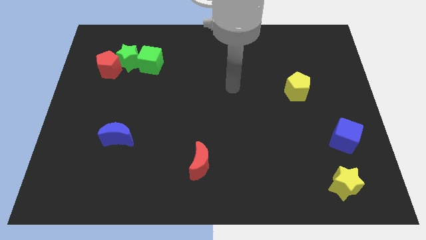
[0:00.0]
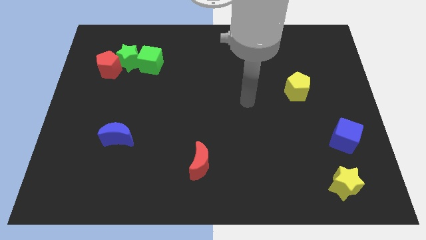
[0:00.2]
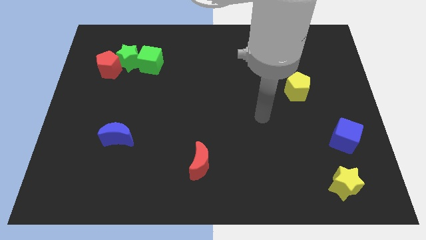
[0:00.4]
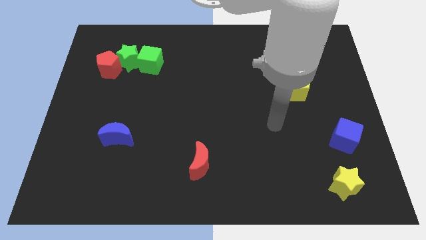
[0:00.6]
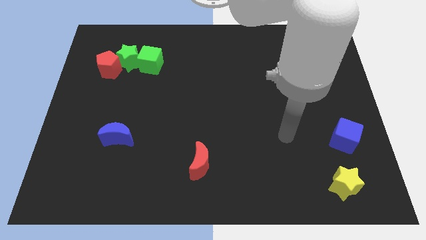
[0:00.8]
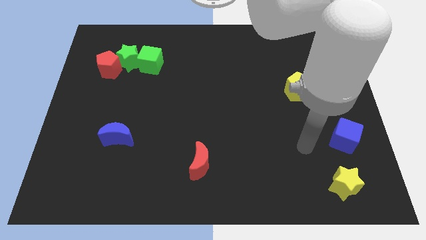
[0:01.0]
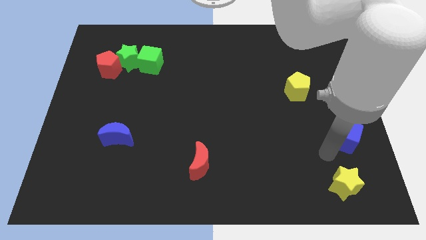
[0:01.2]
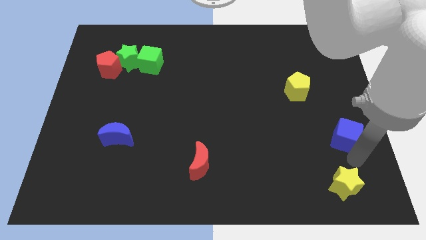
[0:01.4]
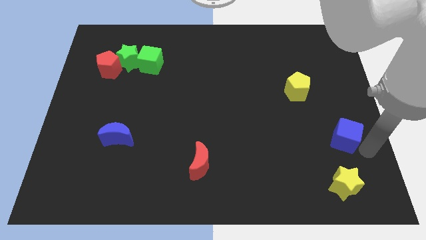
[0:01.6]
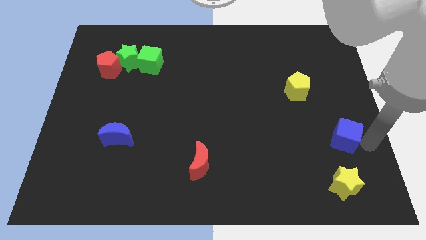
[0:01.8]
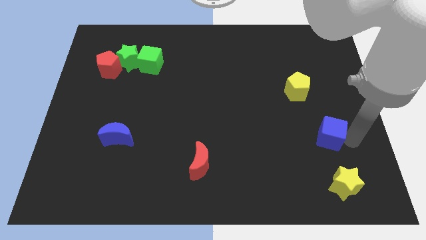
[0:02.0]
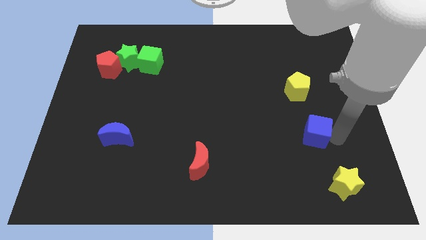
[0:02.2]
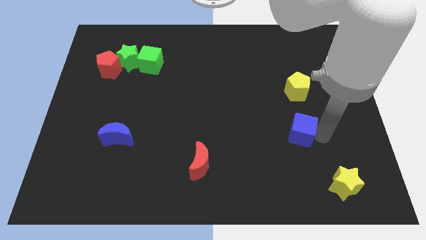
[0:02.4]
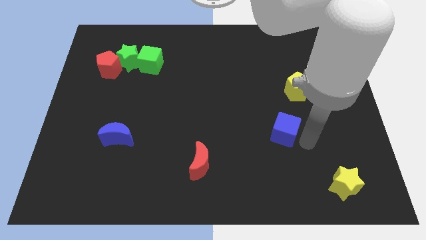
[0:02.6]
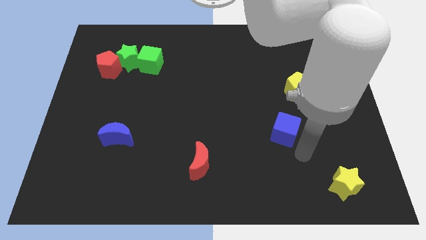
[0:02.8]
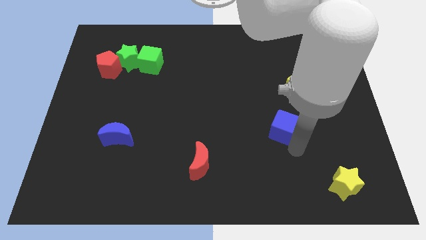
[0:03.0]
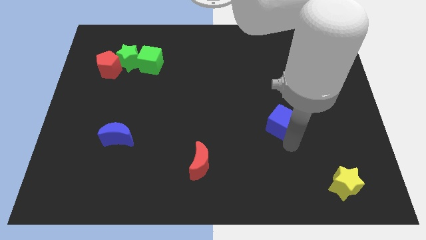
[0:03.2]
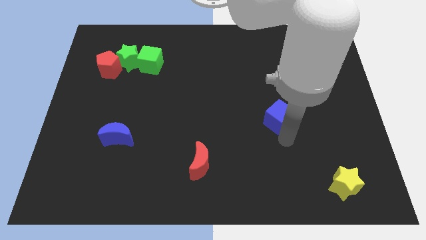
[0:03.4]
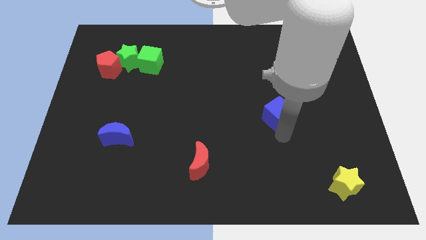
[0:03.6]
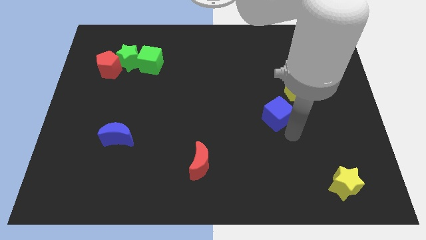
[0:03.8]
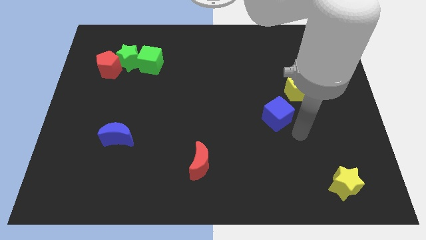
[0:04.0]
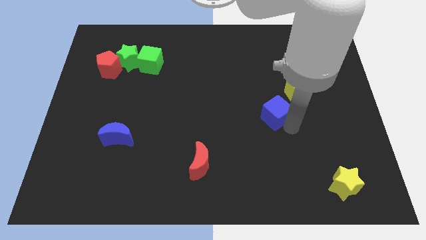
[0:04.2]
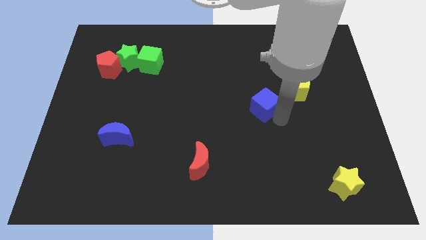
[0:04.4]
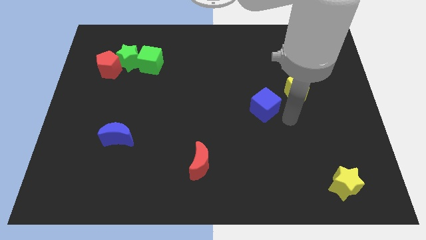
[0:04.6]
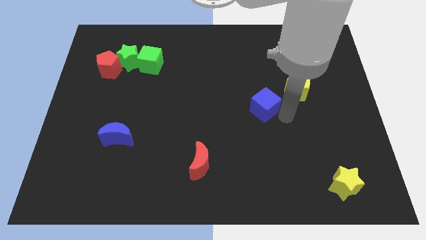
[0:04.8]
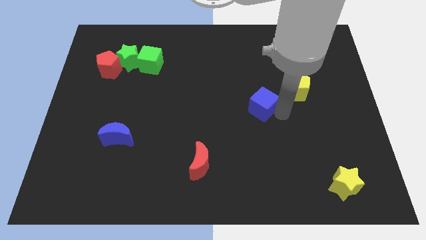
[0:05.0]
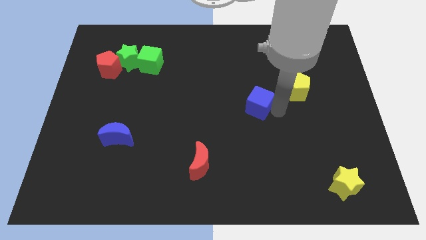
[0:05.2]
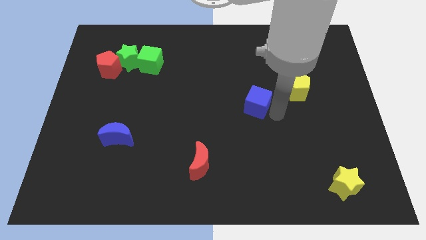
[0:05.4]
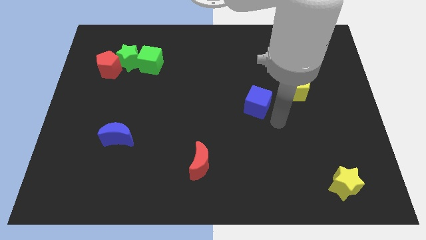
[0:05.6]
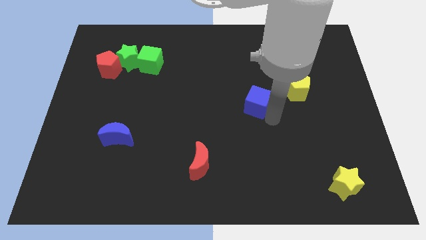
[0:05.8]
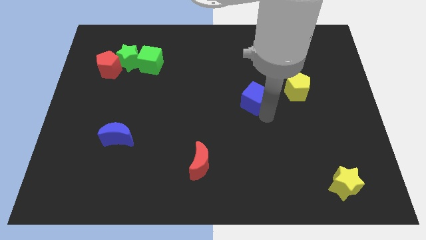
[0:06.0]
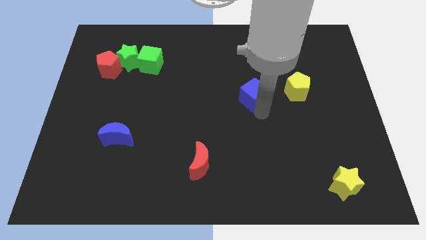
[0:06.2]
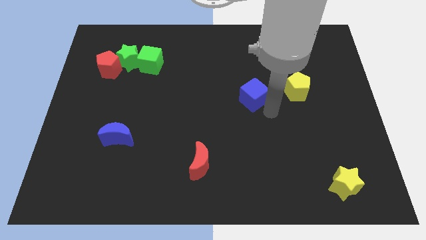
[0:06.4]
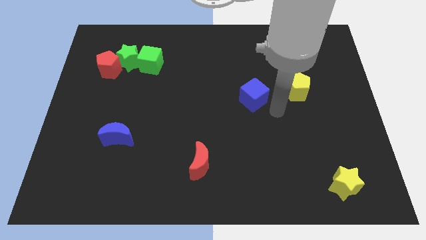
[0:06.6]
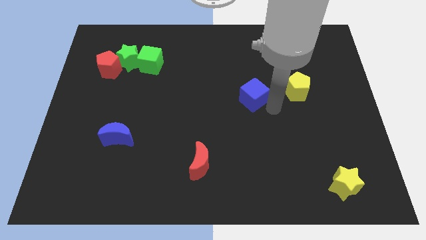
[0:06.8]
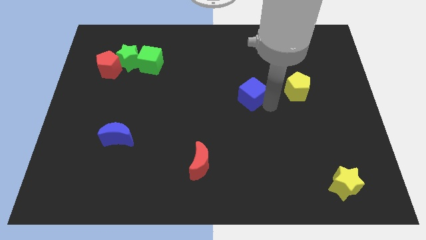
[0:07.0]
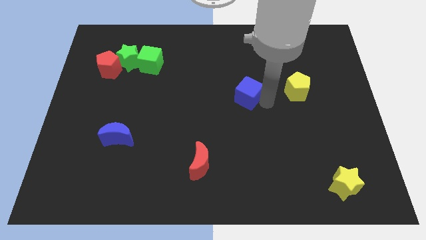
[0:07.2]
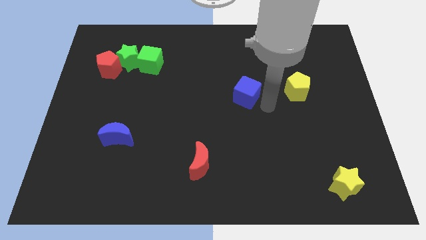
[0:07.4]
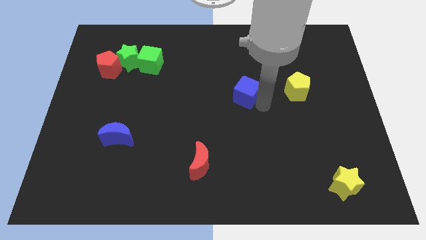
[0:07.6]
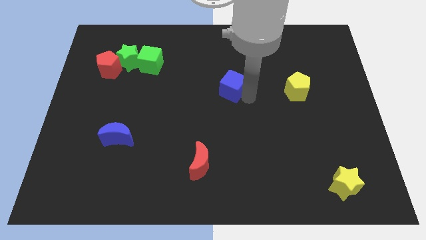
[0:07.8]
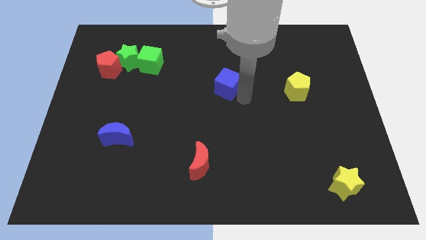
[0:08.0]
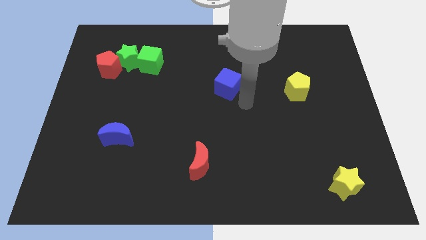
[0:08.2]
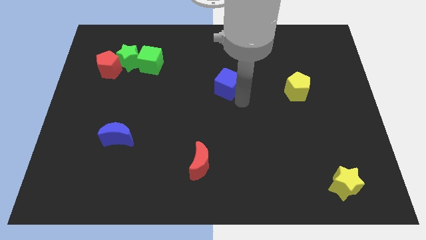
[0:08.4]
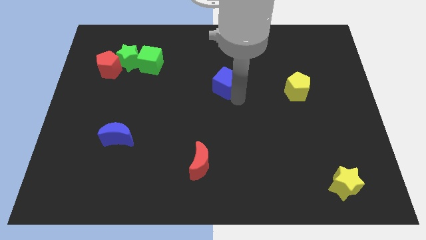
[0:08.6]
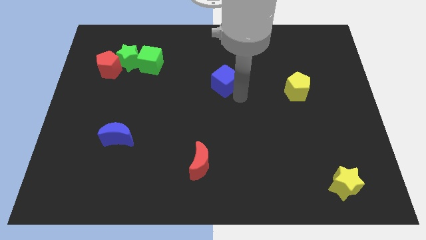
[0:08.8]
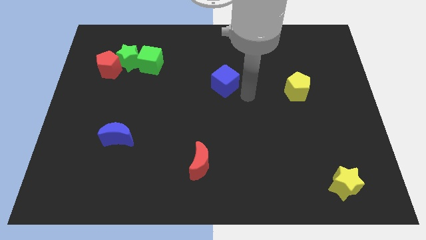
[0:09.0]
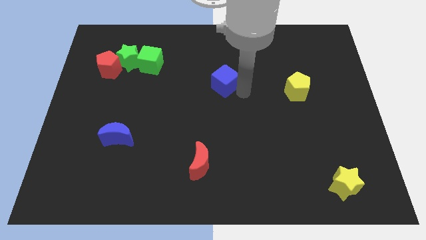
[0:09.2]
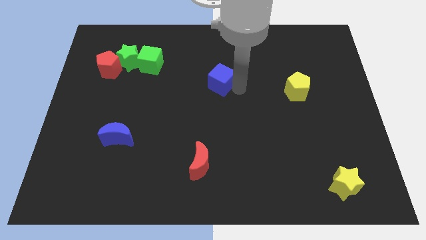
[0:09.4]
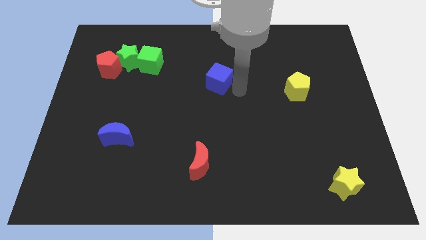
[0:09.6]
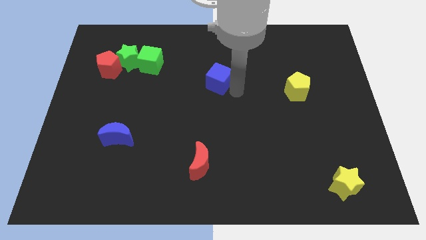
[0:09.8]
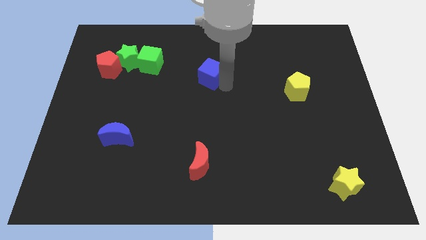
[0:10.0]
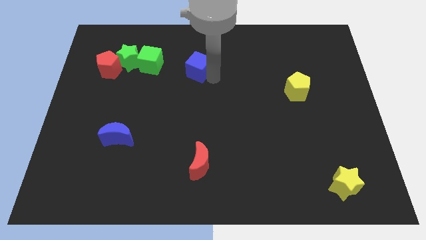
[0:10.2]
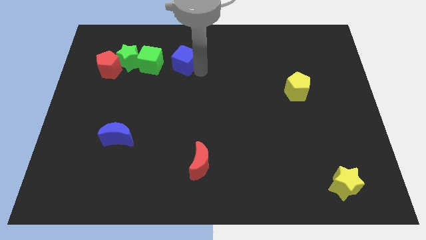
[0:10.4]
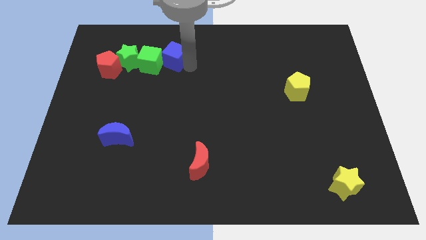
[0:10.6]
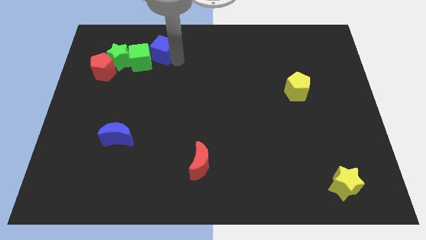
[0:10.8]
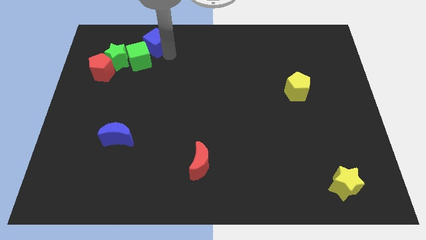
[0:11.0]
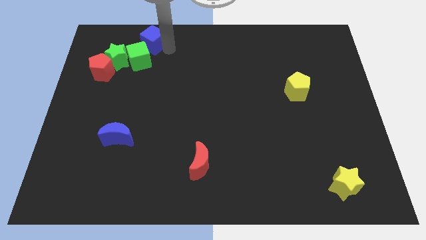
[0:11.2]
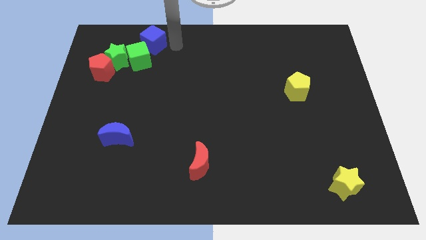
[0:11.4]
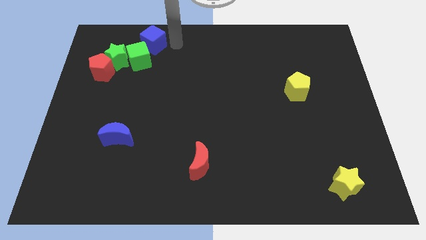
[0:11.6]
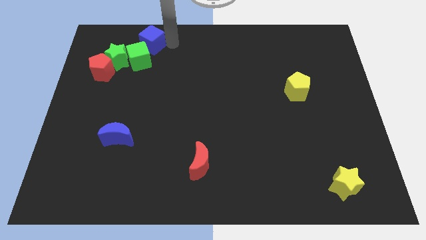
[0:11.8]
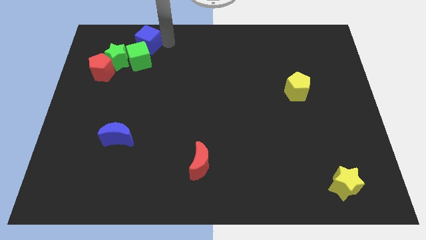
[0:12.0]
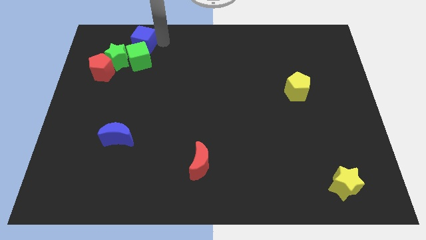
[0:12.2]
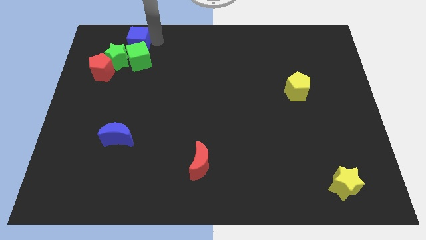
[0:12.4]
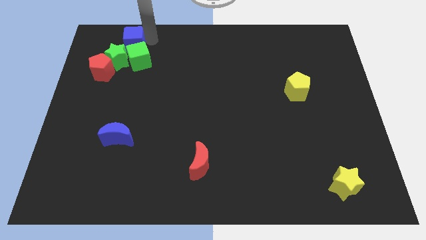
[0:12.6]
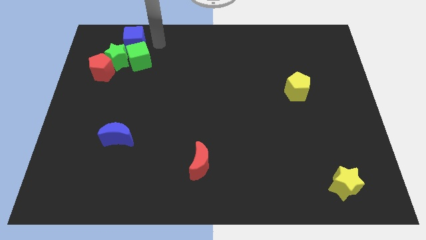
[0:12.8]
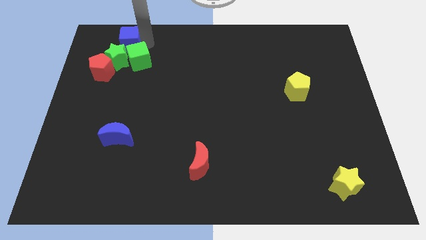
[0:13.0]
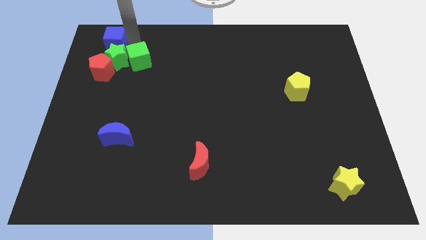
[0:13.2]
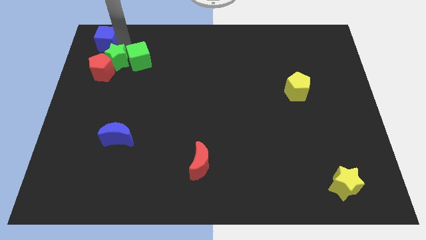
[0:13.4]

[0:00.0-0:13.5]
push the blue cube to the upper left corner
